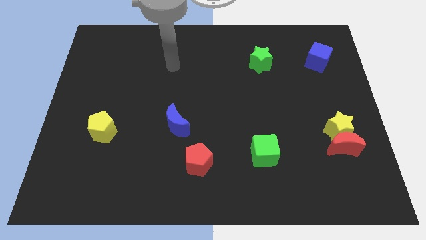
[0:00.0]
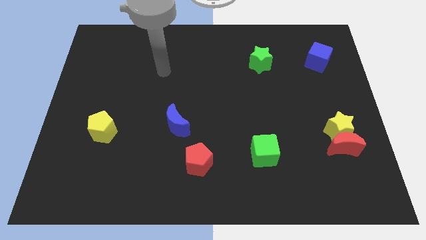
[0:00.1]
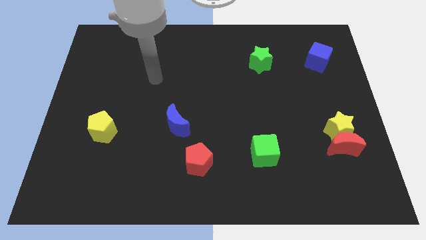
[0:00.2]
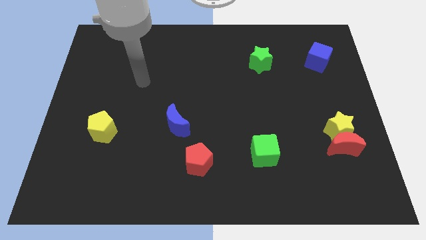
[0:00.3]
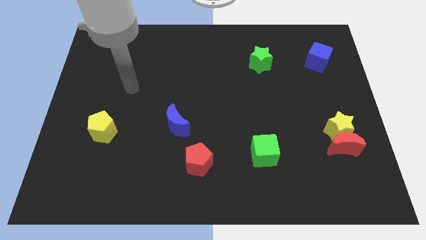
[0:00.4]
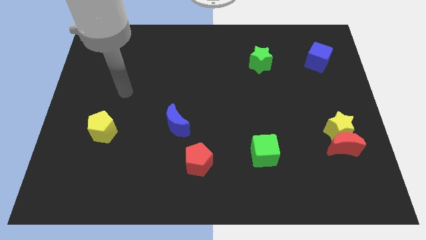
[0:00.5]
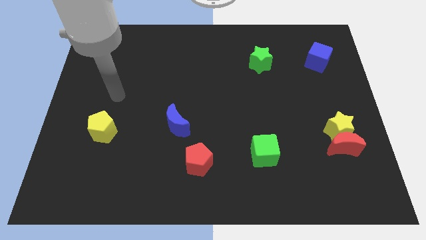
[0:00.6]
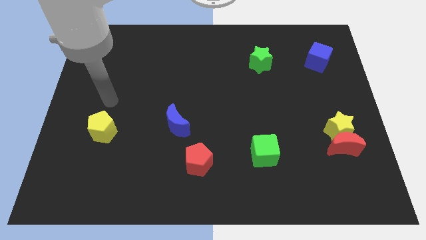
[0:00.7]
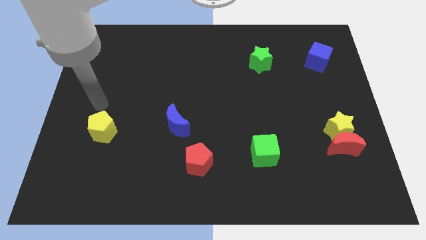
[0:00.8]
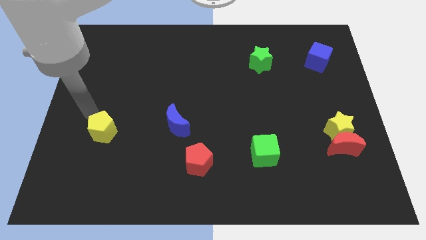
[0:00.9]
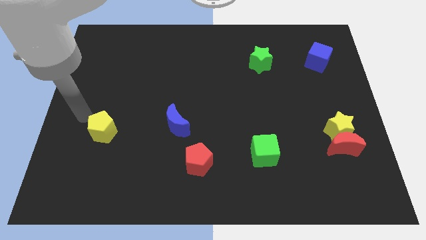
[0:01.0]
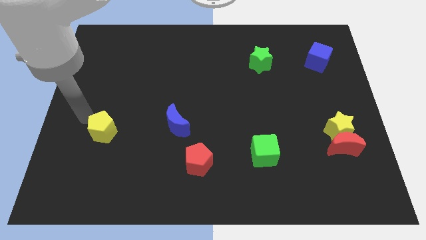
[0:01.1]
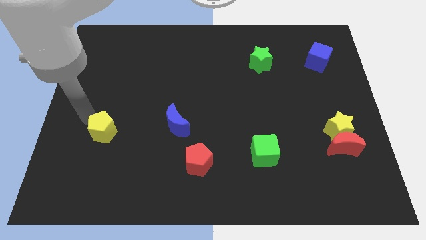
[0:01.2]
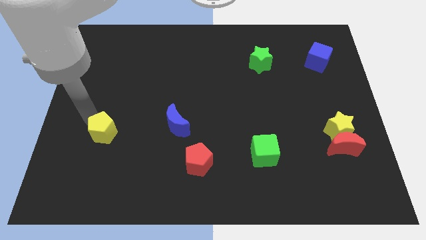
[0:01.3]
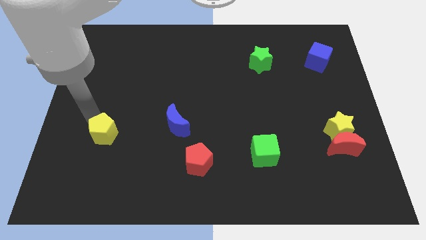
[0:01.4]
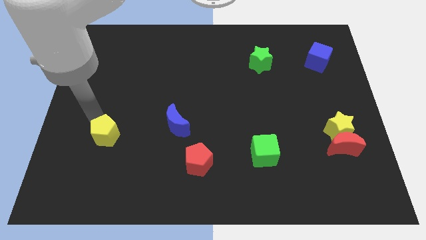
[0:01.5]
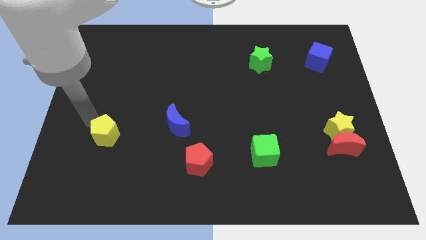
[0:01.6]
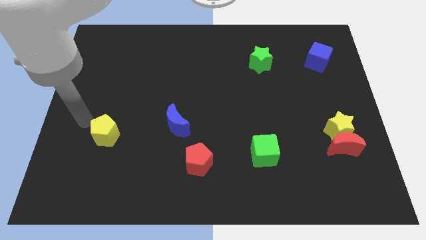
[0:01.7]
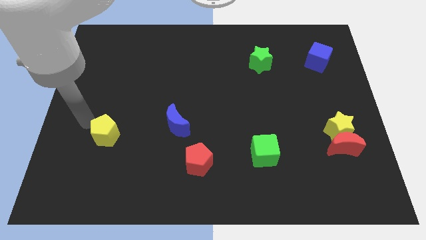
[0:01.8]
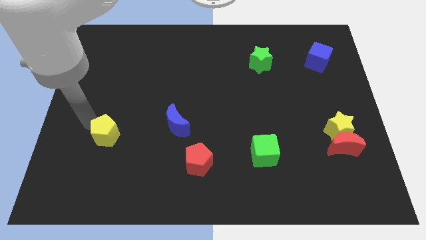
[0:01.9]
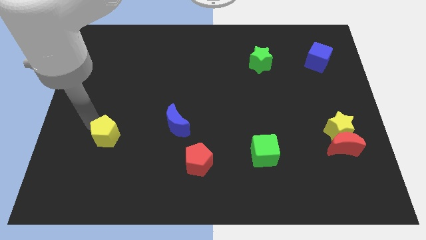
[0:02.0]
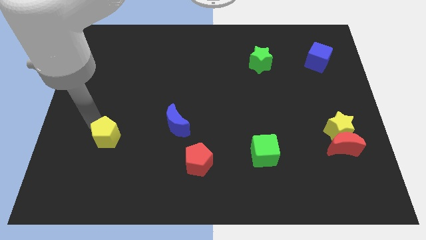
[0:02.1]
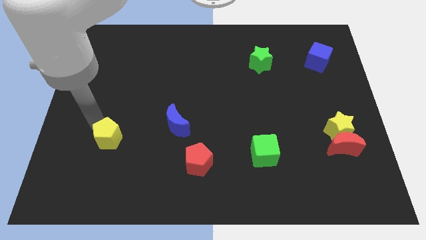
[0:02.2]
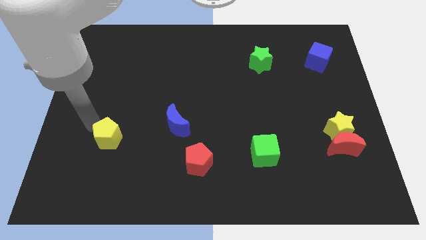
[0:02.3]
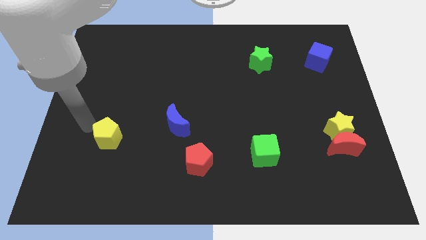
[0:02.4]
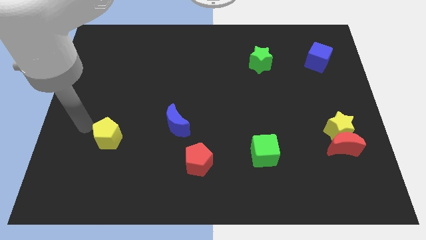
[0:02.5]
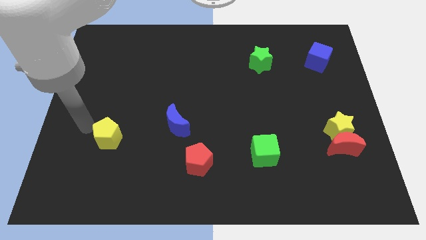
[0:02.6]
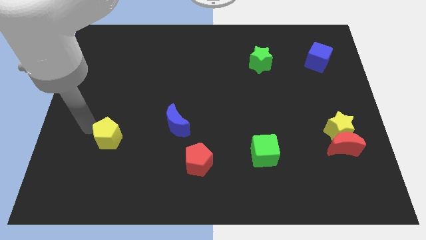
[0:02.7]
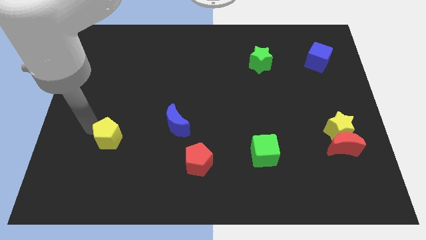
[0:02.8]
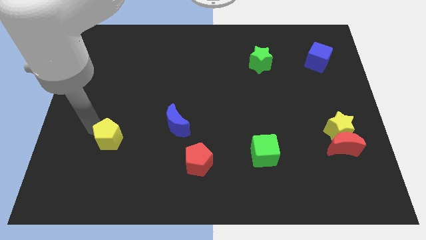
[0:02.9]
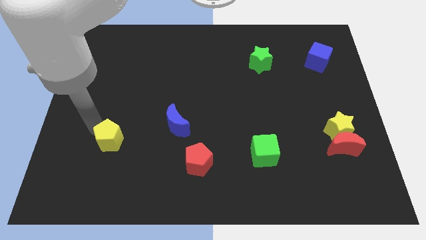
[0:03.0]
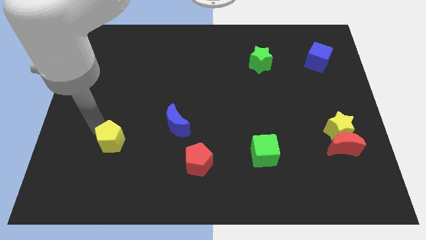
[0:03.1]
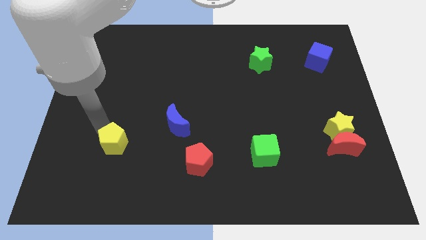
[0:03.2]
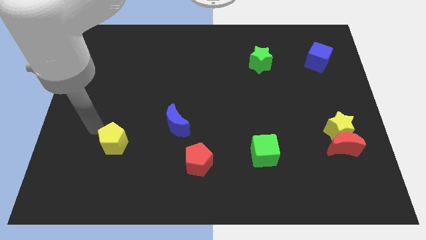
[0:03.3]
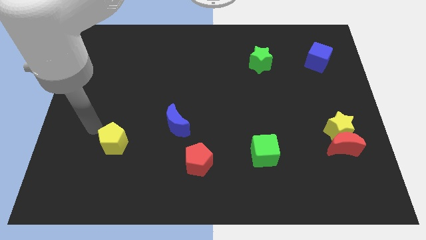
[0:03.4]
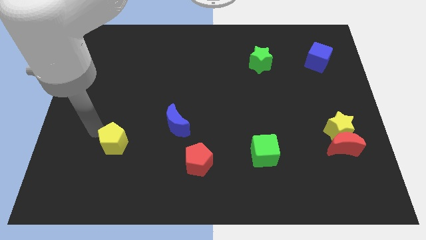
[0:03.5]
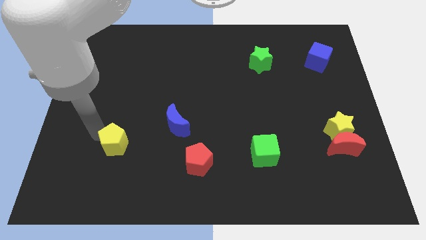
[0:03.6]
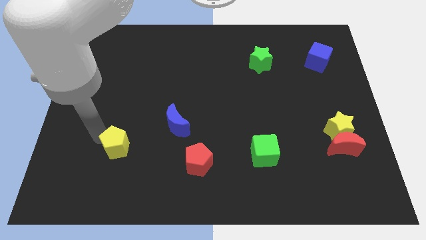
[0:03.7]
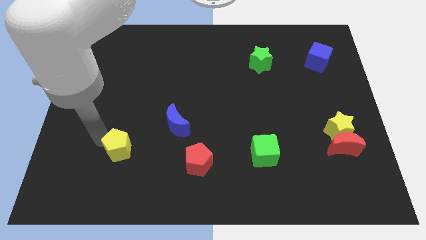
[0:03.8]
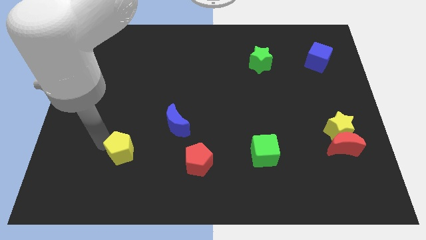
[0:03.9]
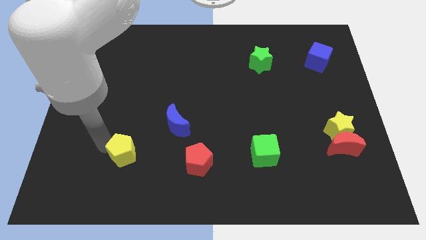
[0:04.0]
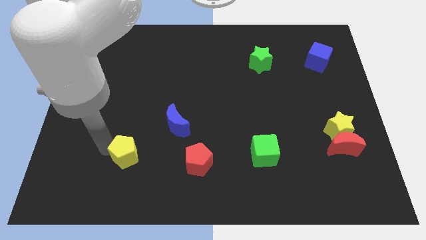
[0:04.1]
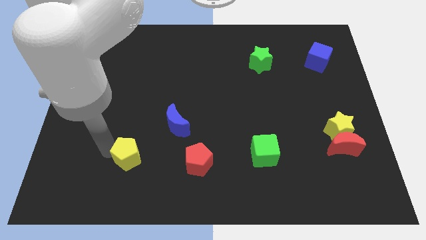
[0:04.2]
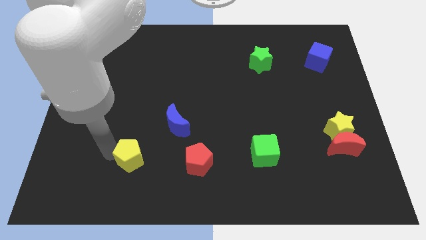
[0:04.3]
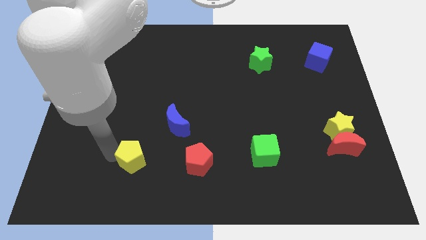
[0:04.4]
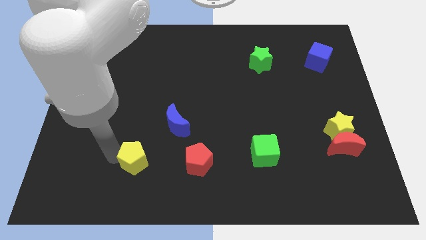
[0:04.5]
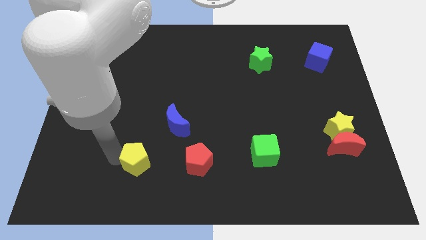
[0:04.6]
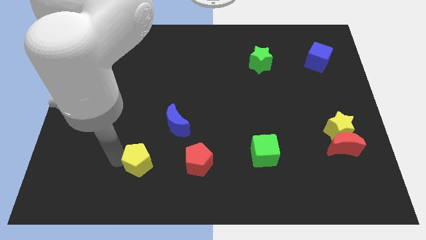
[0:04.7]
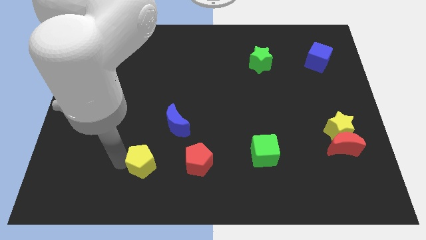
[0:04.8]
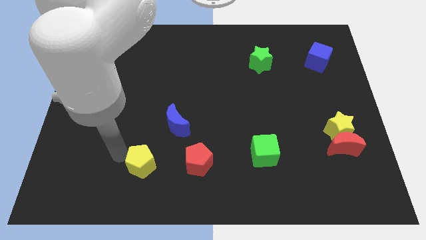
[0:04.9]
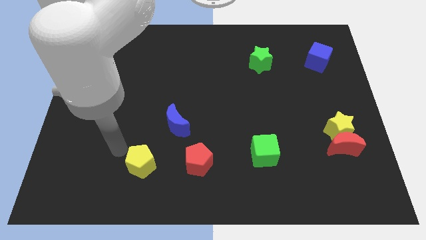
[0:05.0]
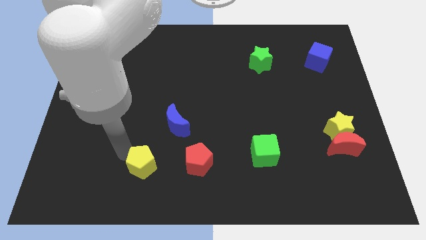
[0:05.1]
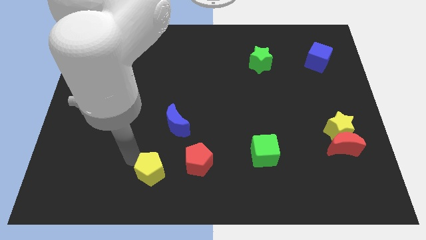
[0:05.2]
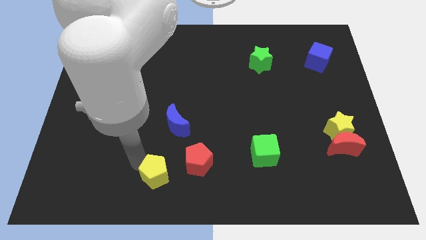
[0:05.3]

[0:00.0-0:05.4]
push the yellow pentagon to the bottom left of the red pentagon

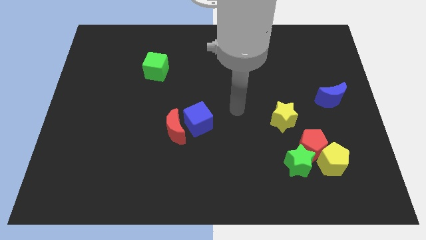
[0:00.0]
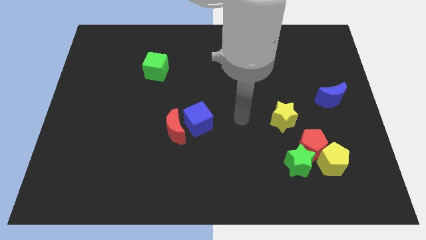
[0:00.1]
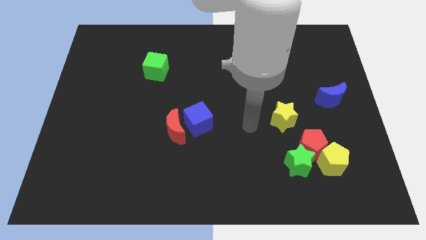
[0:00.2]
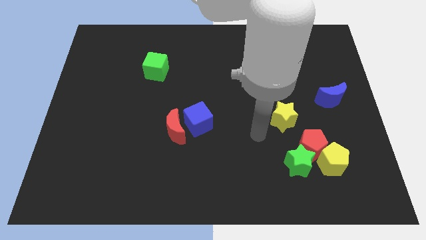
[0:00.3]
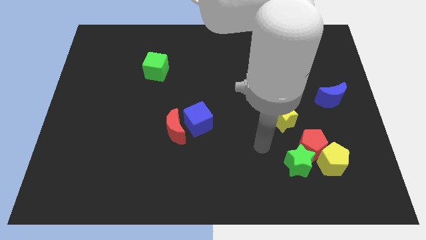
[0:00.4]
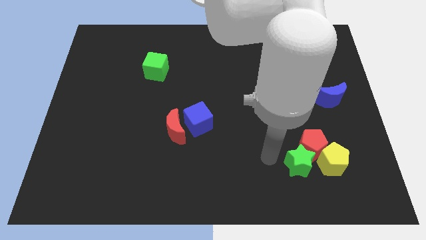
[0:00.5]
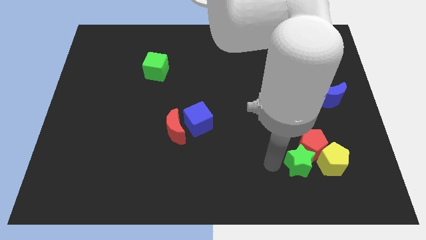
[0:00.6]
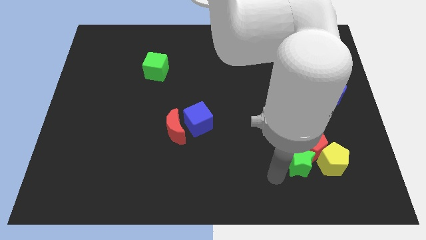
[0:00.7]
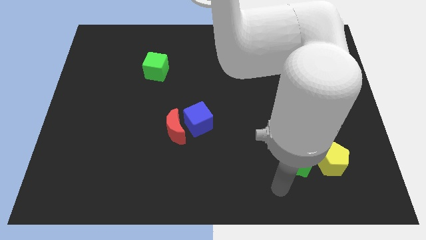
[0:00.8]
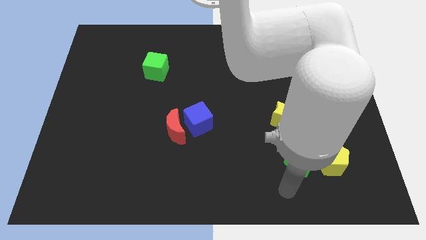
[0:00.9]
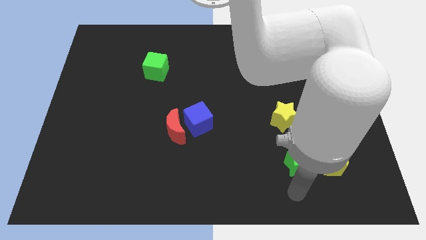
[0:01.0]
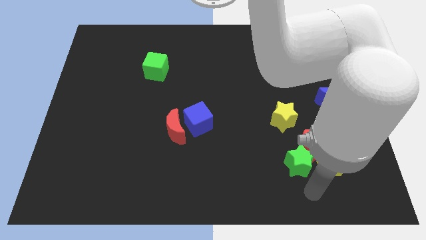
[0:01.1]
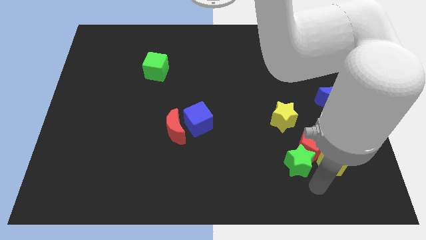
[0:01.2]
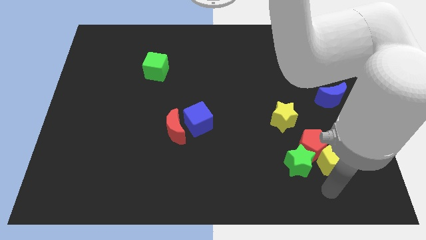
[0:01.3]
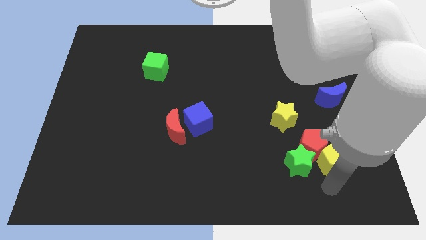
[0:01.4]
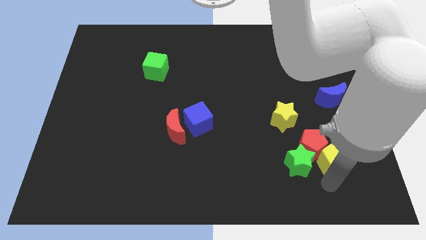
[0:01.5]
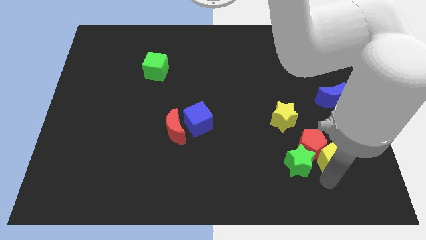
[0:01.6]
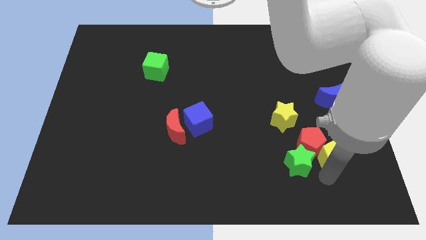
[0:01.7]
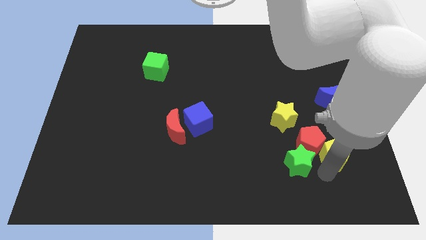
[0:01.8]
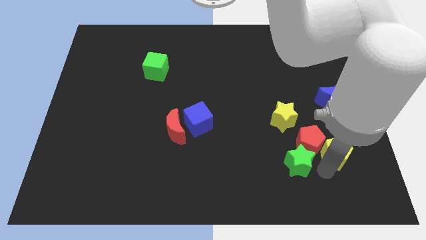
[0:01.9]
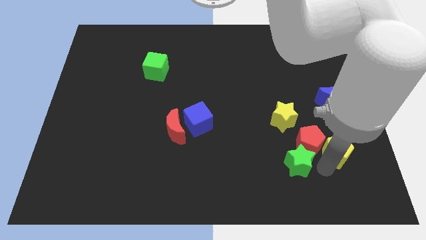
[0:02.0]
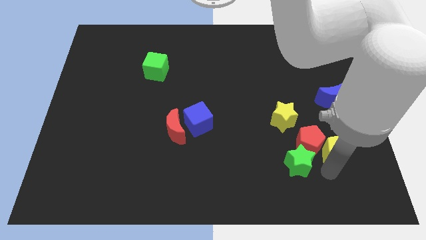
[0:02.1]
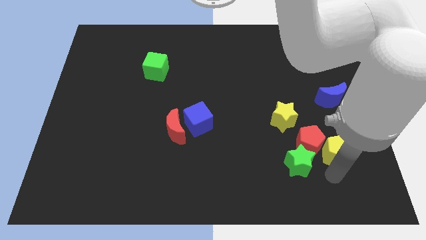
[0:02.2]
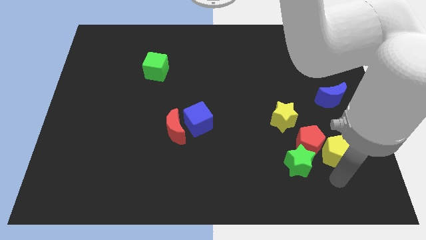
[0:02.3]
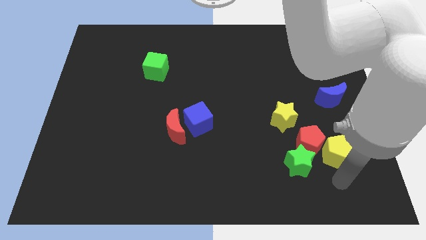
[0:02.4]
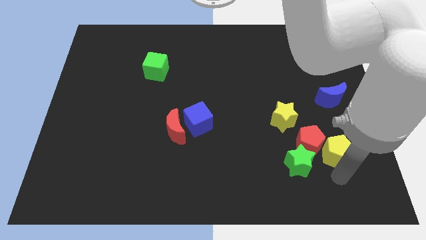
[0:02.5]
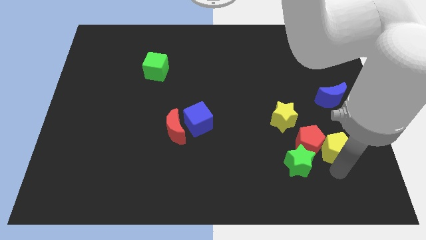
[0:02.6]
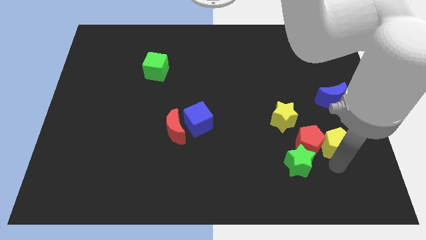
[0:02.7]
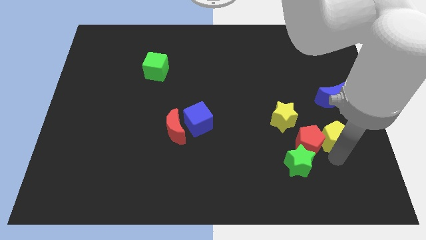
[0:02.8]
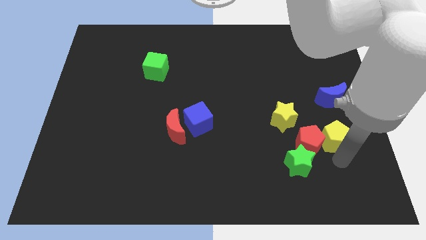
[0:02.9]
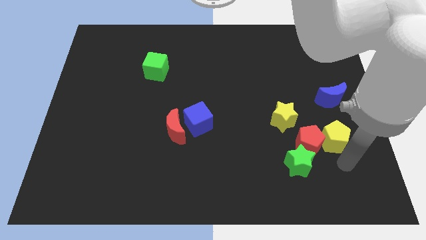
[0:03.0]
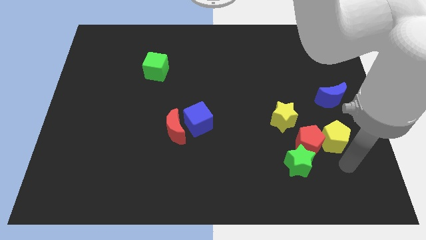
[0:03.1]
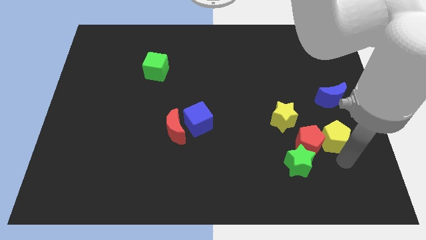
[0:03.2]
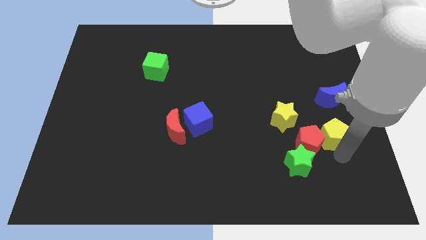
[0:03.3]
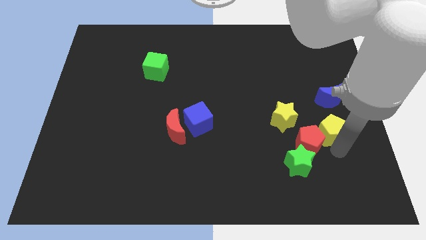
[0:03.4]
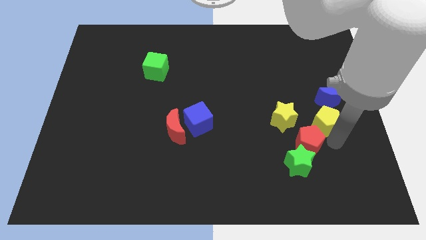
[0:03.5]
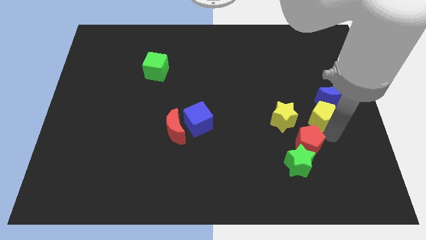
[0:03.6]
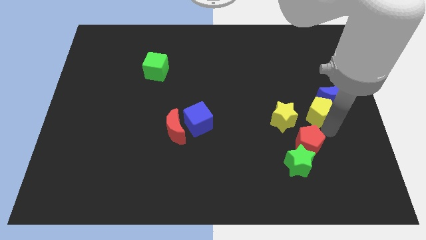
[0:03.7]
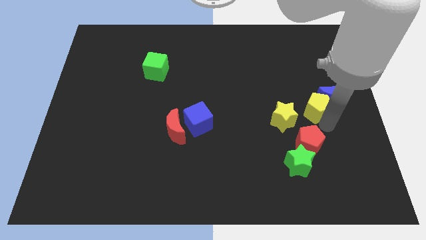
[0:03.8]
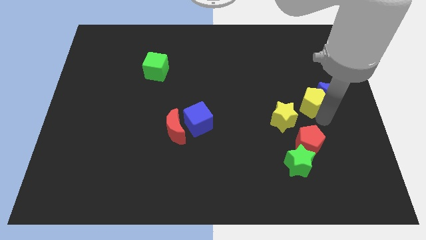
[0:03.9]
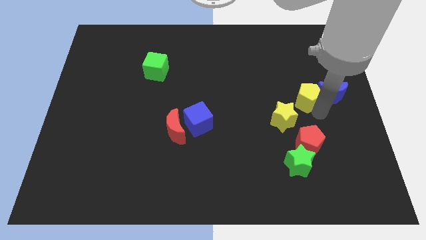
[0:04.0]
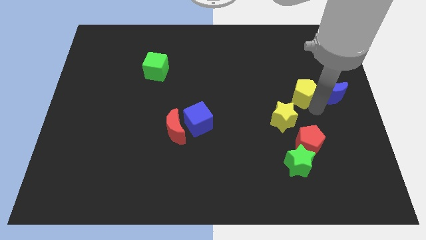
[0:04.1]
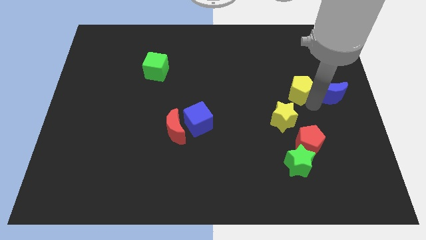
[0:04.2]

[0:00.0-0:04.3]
move the yellow pentagon to the top of the yellow star
